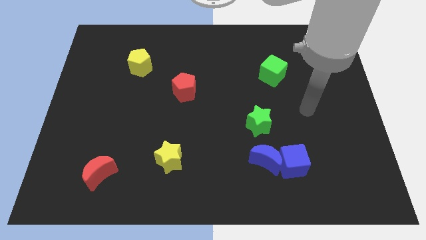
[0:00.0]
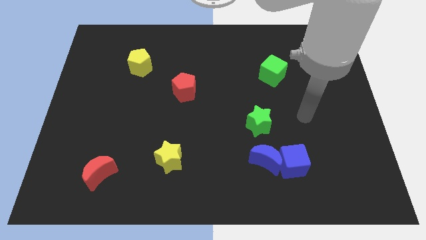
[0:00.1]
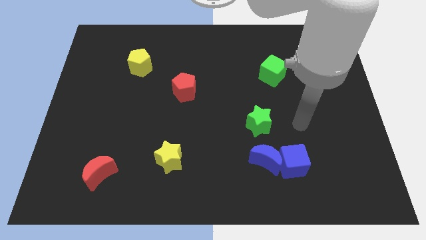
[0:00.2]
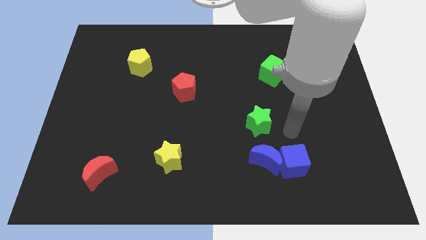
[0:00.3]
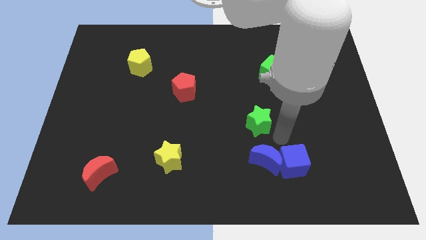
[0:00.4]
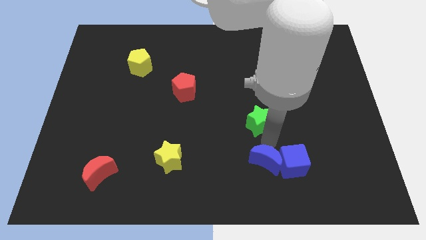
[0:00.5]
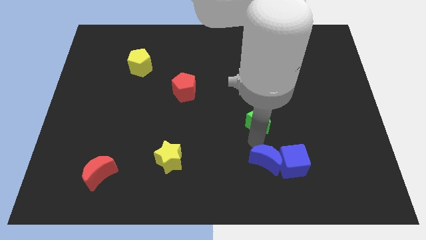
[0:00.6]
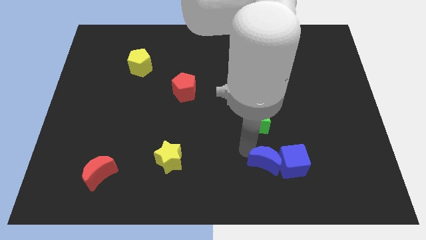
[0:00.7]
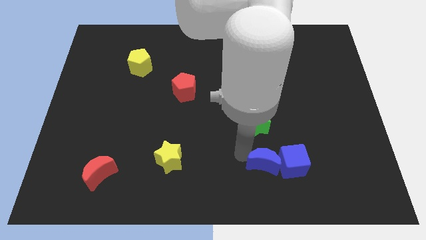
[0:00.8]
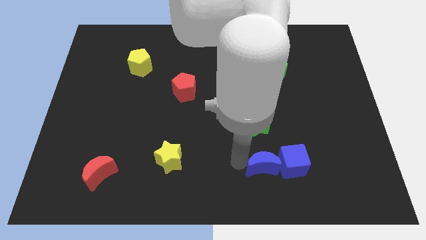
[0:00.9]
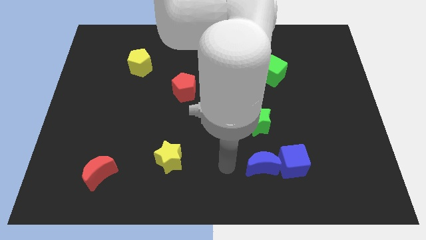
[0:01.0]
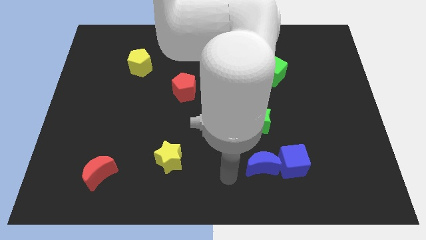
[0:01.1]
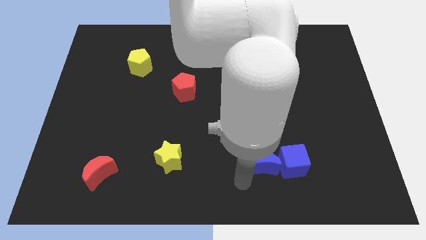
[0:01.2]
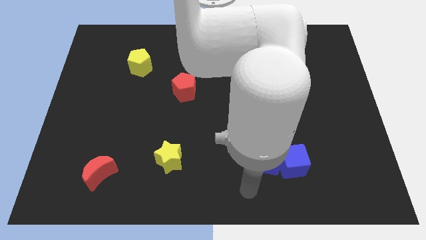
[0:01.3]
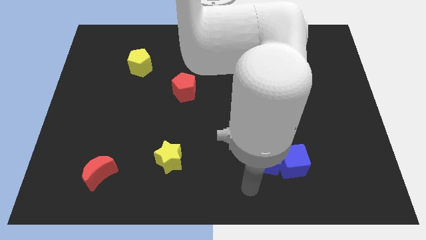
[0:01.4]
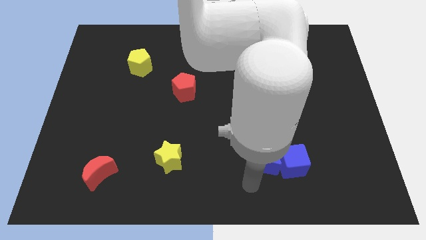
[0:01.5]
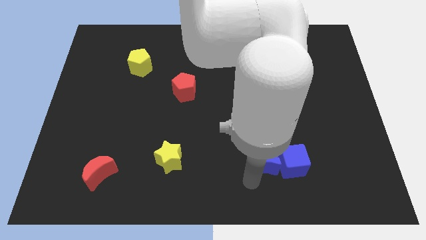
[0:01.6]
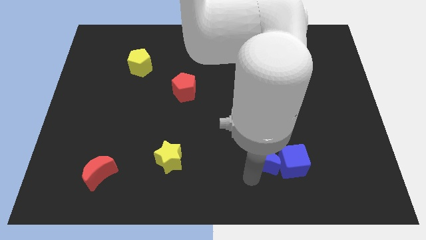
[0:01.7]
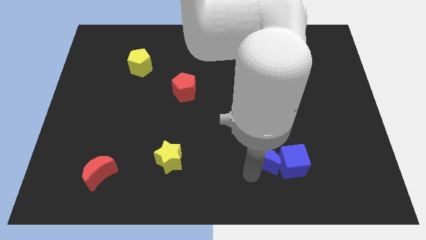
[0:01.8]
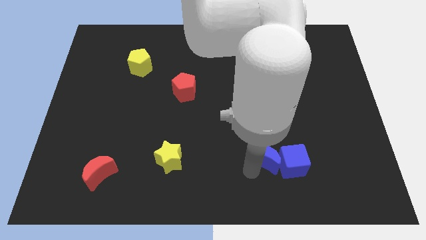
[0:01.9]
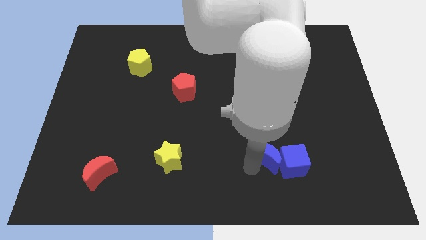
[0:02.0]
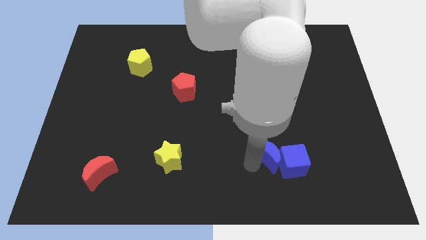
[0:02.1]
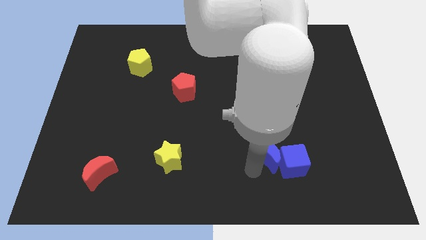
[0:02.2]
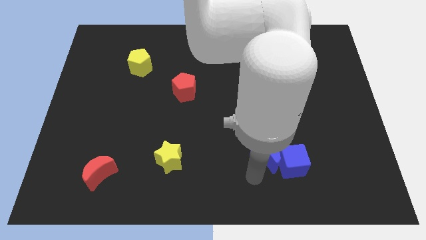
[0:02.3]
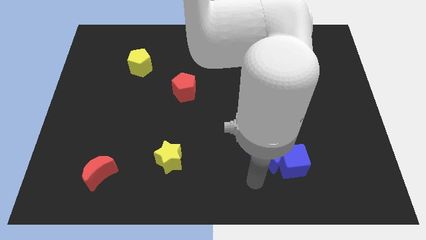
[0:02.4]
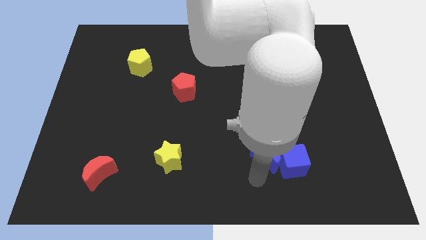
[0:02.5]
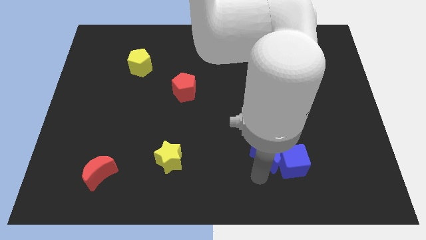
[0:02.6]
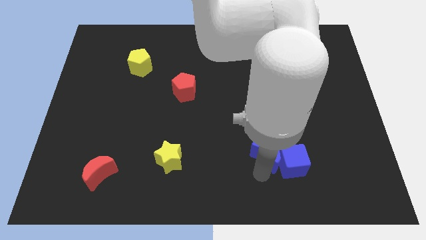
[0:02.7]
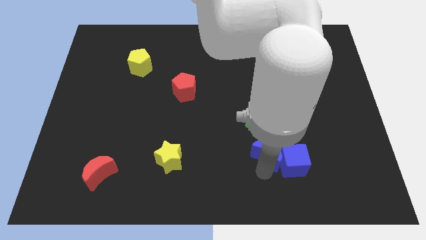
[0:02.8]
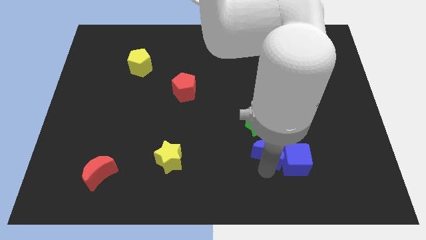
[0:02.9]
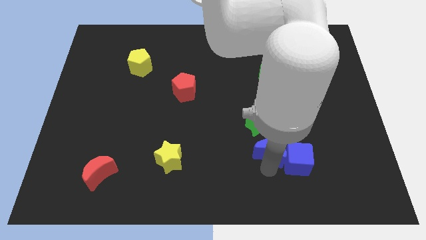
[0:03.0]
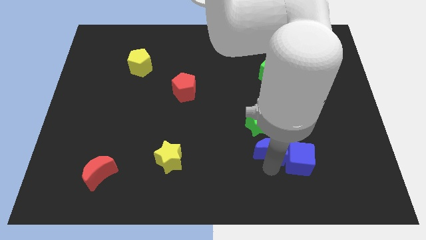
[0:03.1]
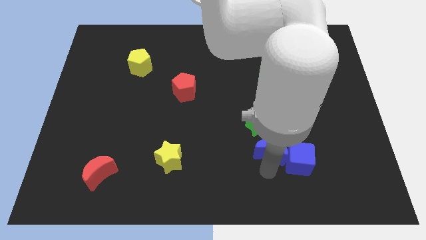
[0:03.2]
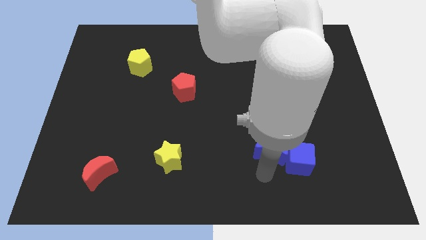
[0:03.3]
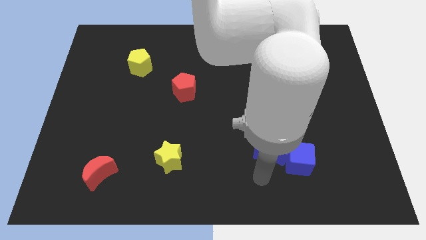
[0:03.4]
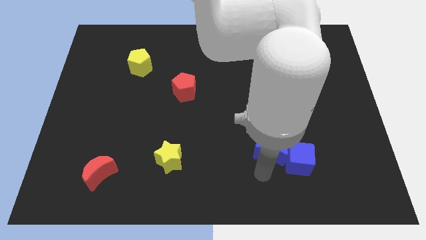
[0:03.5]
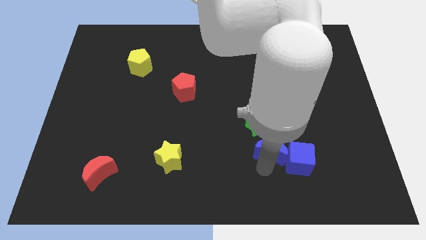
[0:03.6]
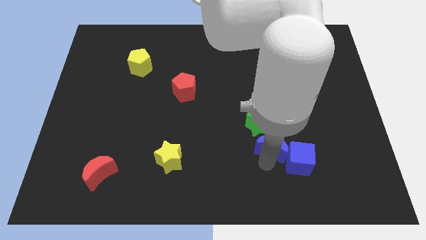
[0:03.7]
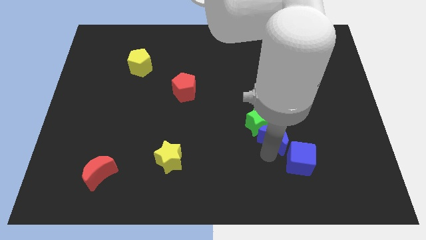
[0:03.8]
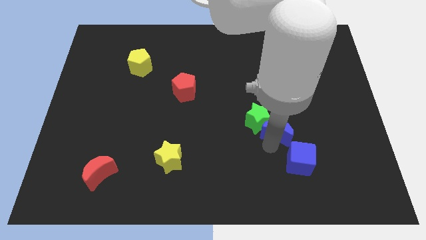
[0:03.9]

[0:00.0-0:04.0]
move the blue moon slightly upwards and then to the right

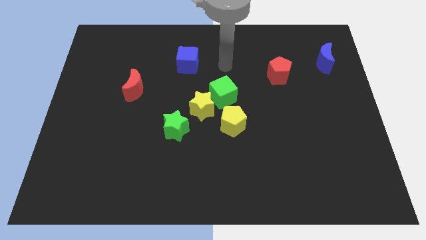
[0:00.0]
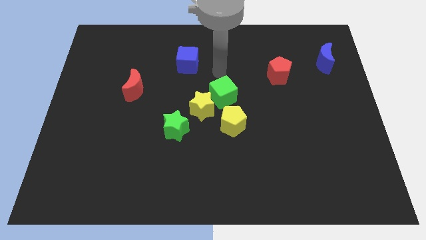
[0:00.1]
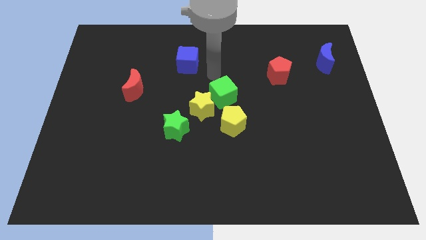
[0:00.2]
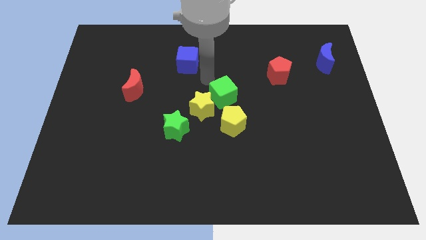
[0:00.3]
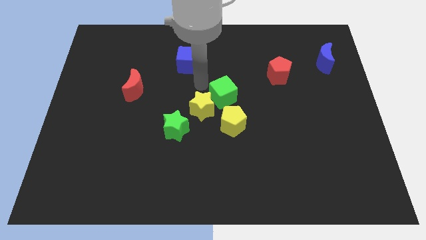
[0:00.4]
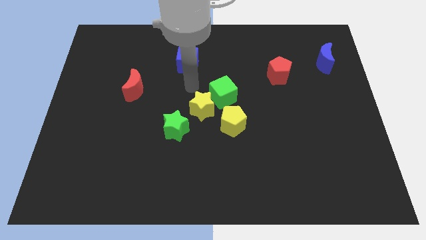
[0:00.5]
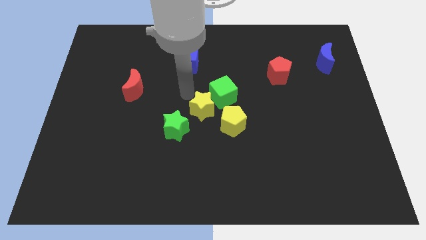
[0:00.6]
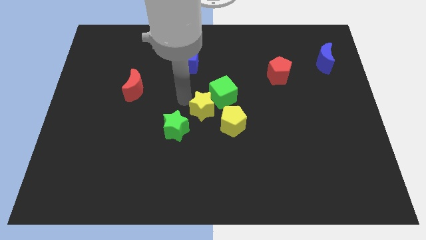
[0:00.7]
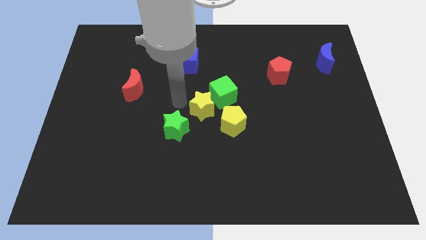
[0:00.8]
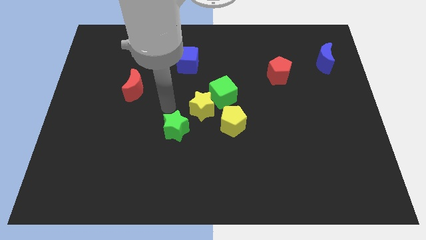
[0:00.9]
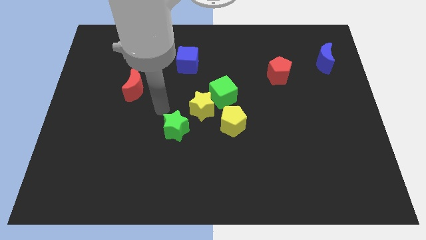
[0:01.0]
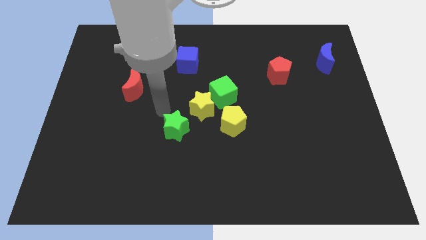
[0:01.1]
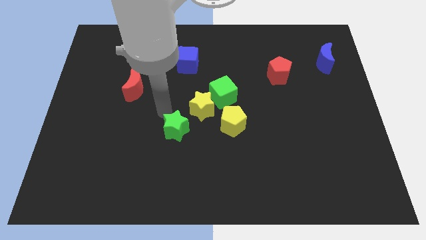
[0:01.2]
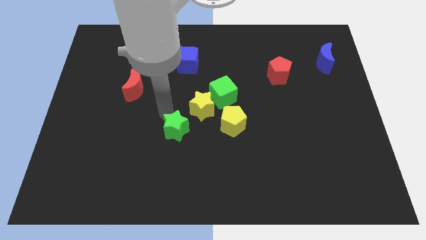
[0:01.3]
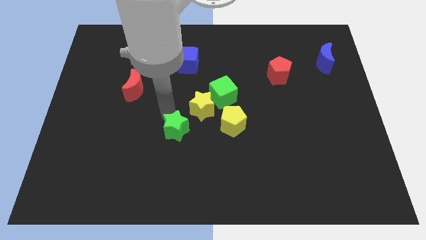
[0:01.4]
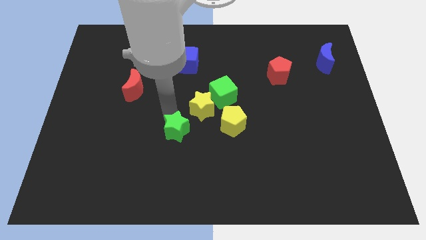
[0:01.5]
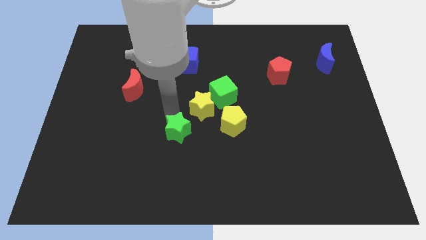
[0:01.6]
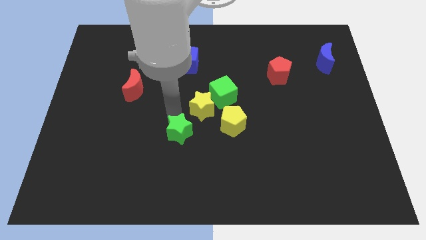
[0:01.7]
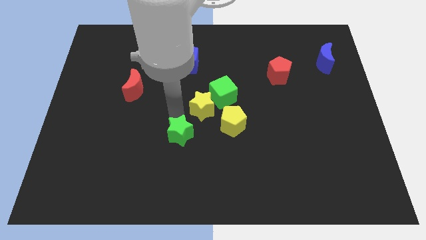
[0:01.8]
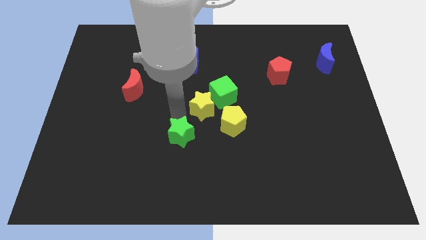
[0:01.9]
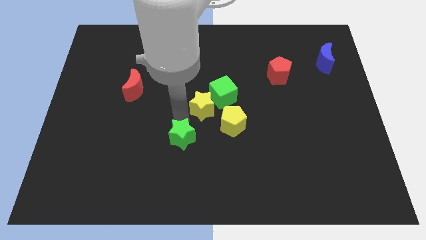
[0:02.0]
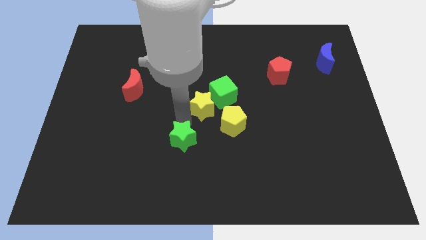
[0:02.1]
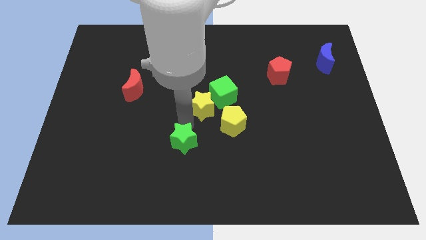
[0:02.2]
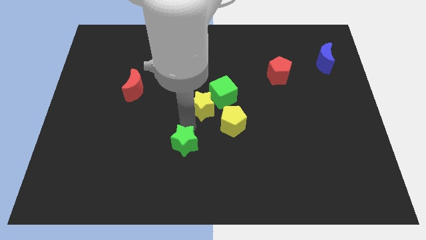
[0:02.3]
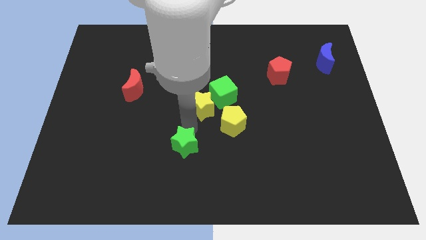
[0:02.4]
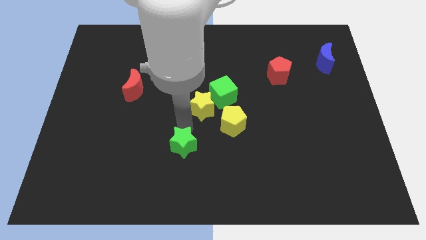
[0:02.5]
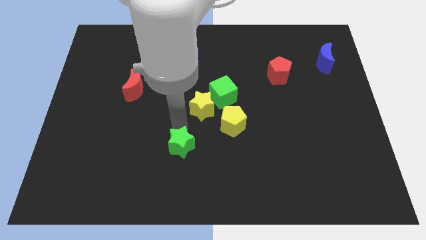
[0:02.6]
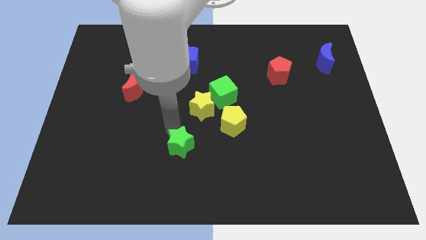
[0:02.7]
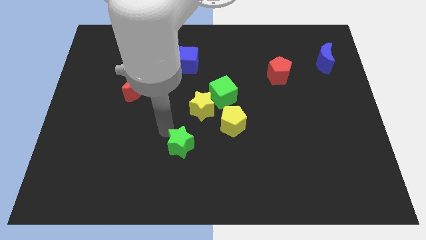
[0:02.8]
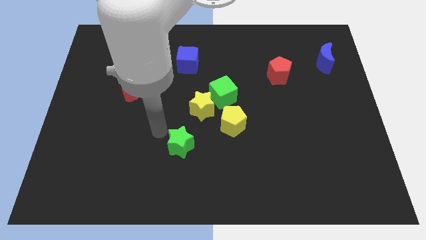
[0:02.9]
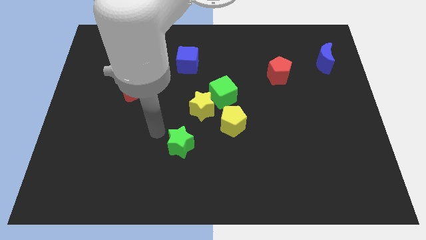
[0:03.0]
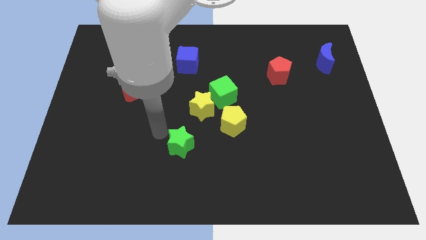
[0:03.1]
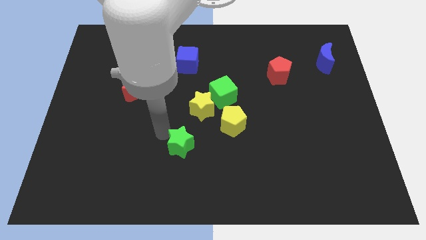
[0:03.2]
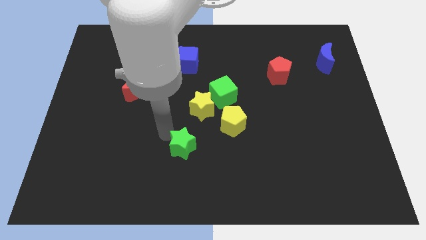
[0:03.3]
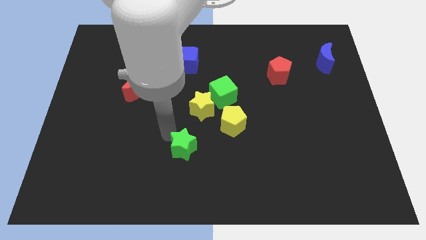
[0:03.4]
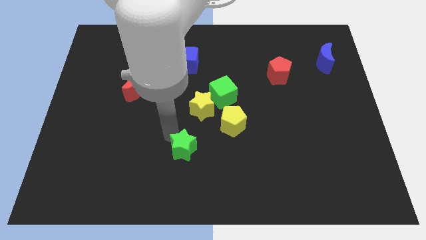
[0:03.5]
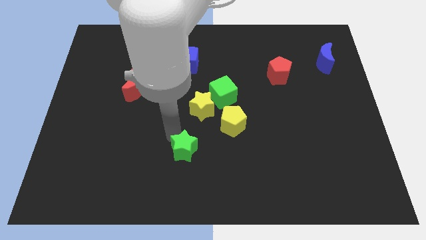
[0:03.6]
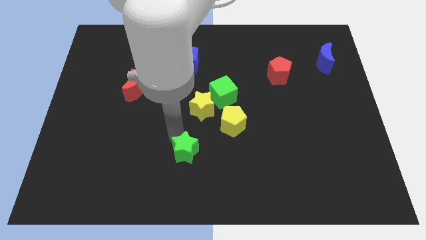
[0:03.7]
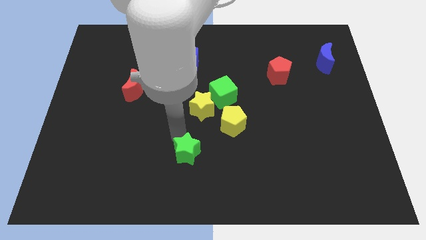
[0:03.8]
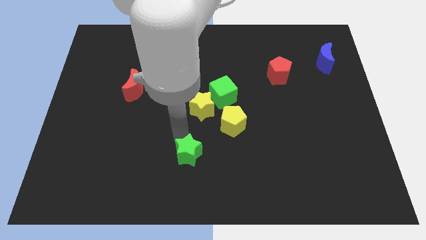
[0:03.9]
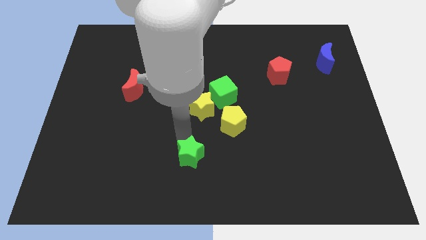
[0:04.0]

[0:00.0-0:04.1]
slightly move the green star downwards and then right
